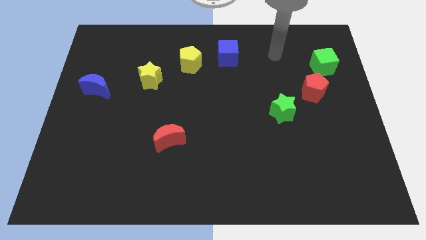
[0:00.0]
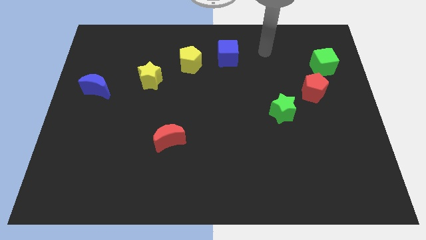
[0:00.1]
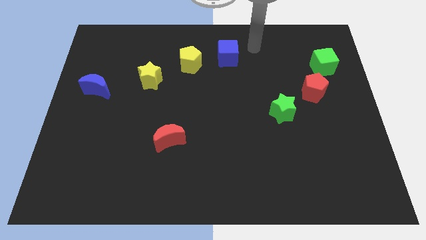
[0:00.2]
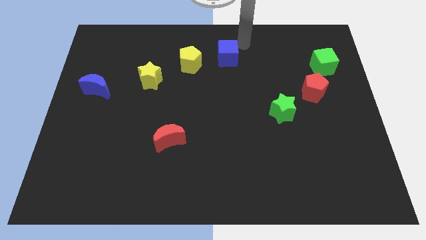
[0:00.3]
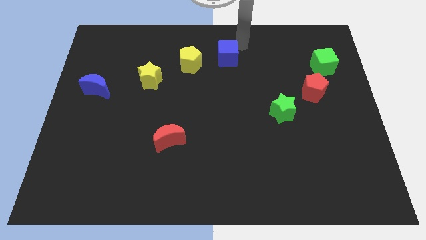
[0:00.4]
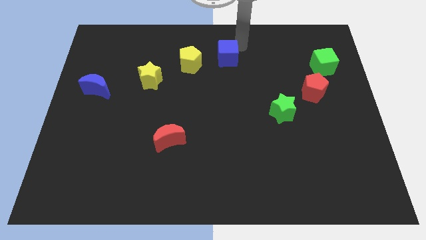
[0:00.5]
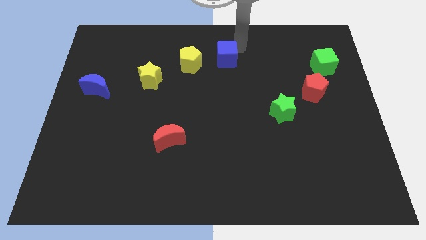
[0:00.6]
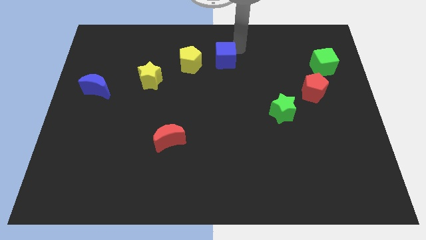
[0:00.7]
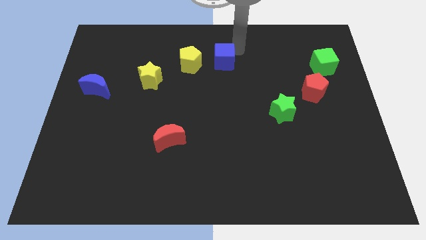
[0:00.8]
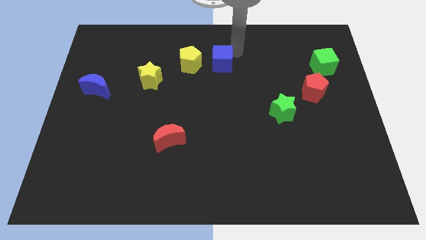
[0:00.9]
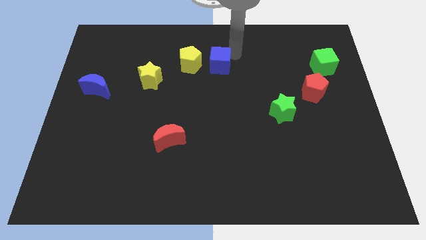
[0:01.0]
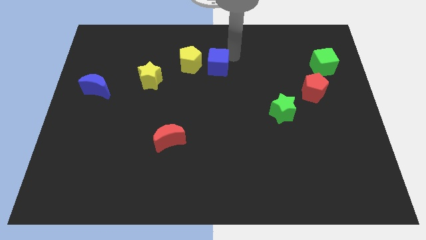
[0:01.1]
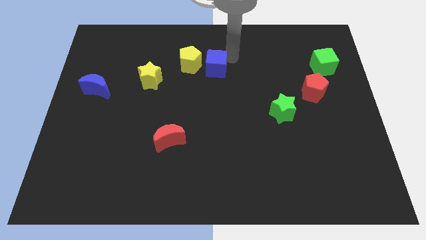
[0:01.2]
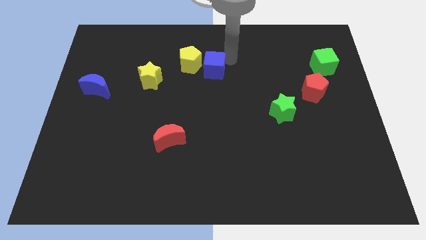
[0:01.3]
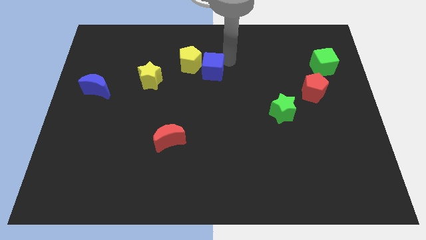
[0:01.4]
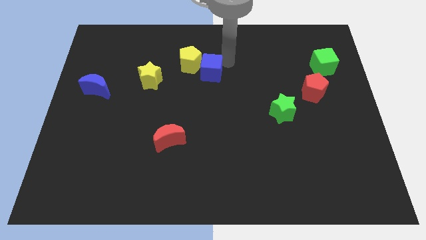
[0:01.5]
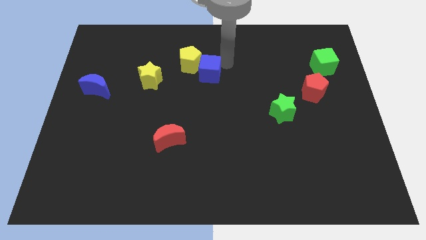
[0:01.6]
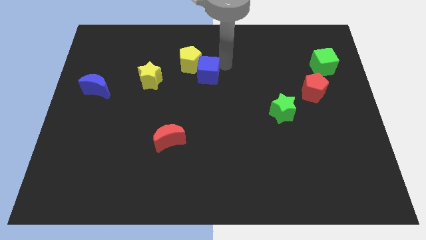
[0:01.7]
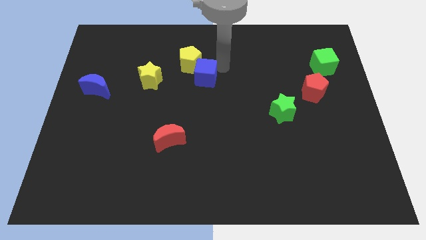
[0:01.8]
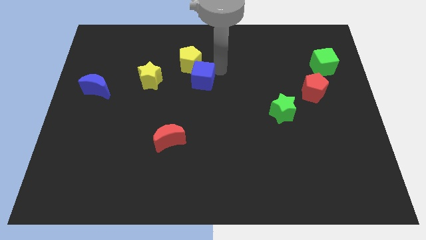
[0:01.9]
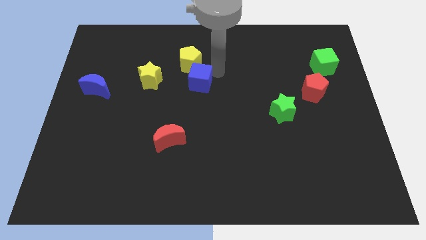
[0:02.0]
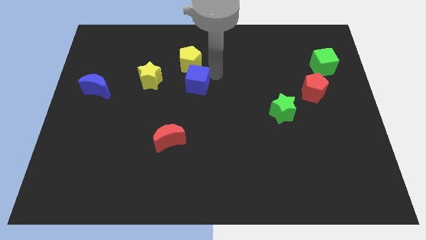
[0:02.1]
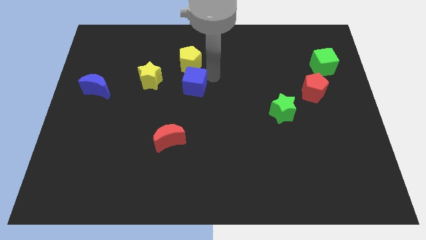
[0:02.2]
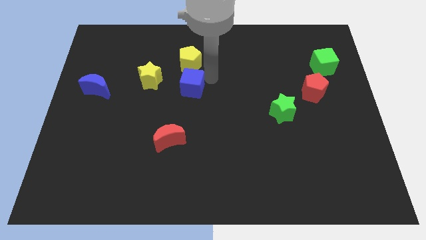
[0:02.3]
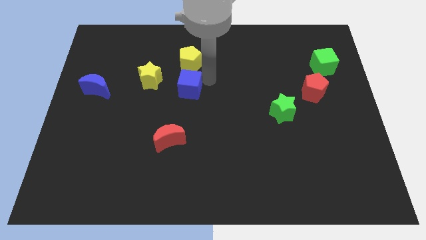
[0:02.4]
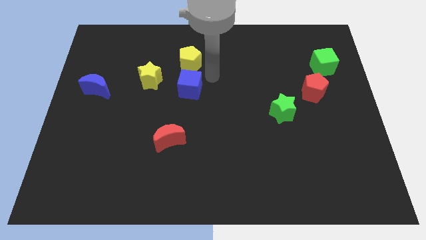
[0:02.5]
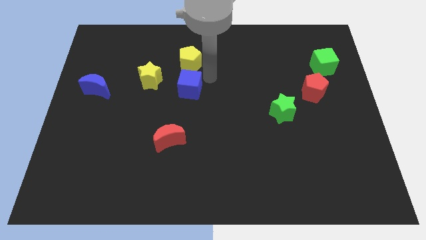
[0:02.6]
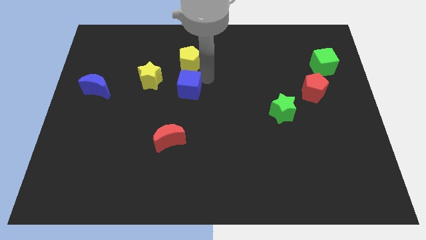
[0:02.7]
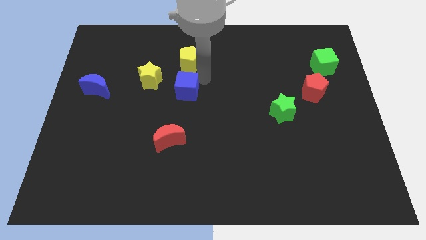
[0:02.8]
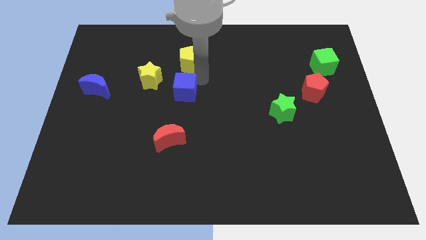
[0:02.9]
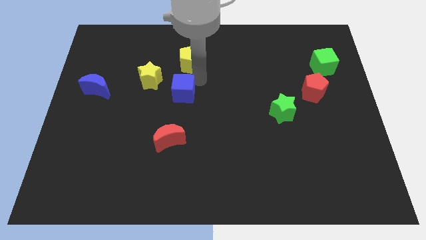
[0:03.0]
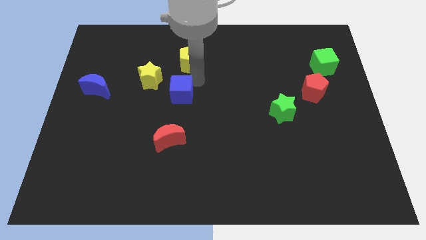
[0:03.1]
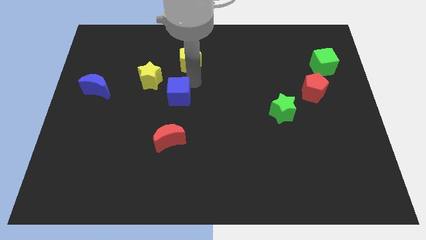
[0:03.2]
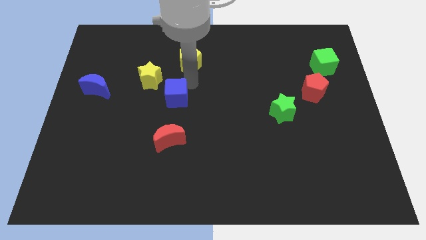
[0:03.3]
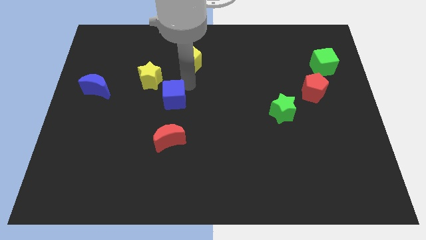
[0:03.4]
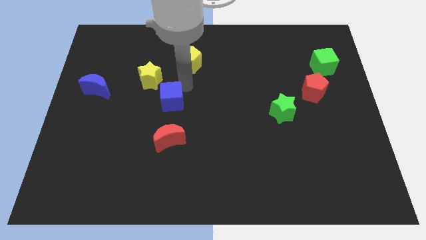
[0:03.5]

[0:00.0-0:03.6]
push the blue cube downwards and then to the left

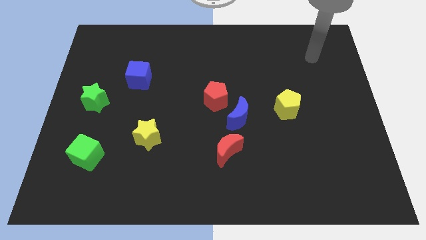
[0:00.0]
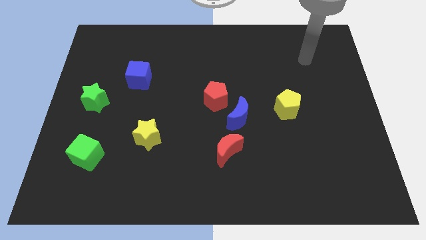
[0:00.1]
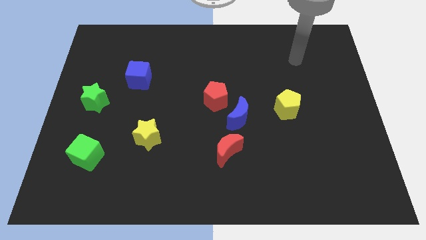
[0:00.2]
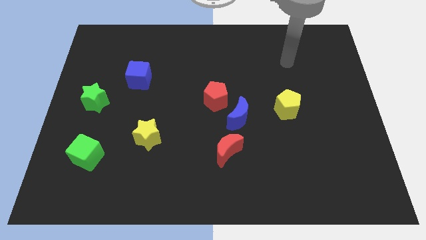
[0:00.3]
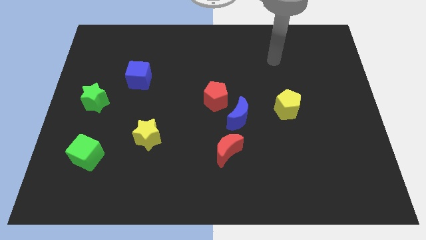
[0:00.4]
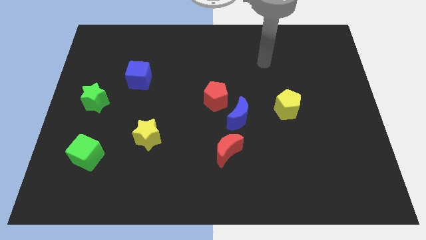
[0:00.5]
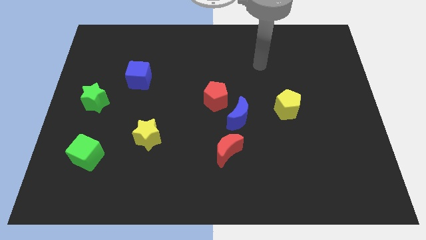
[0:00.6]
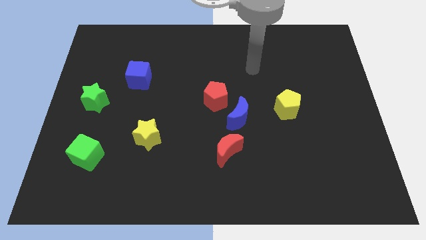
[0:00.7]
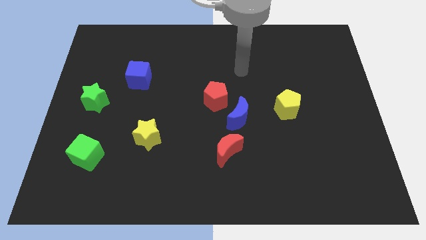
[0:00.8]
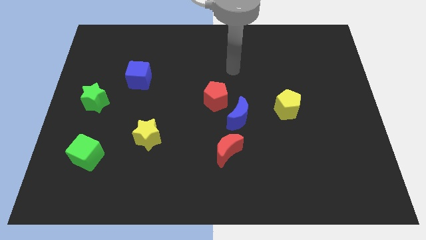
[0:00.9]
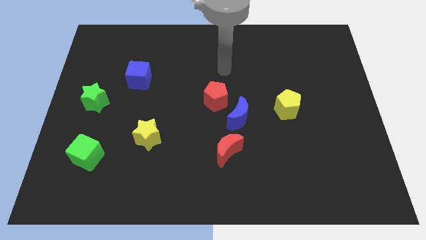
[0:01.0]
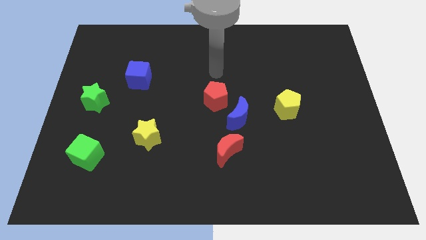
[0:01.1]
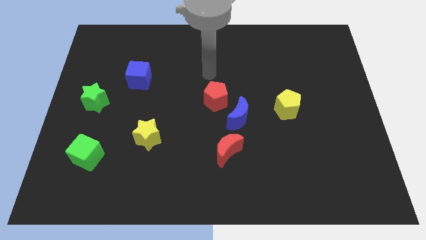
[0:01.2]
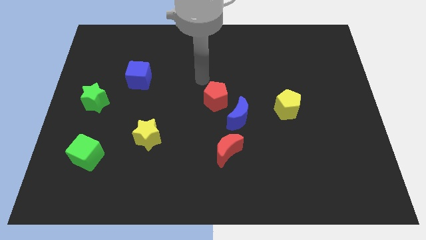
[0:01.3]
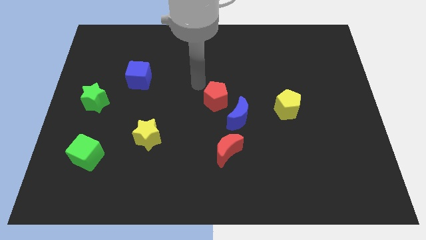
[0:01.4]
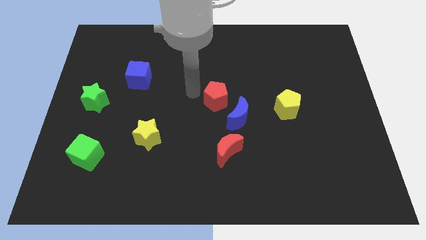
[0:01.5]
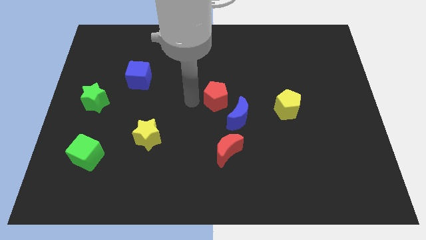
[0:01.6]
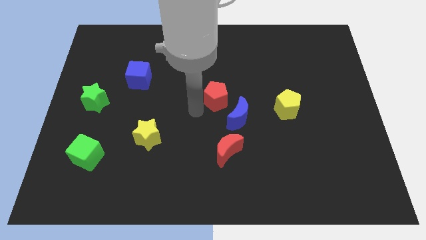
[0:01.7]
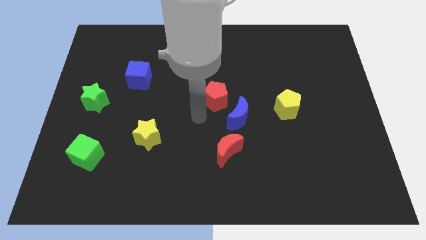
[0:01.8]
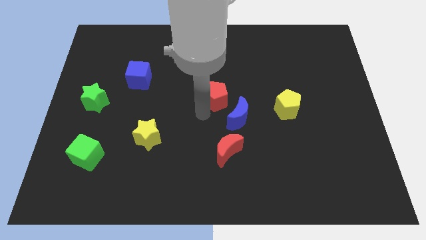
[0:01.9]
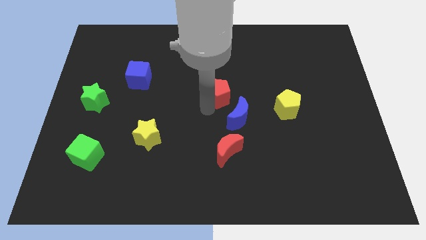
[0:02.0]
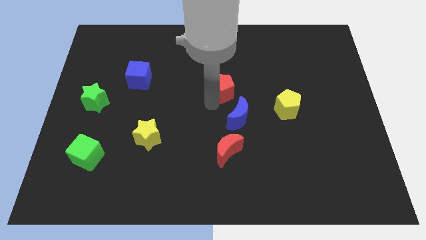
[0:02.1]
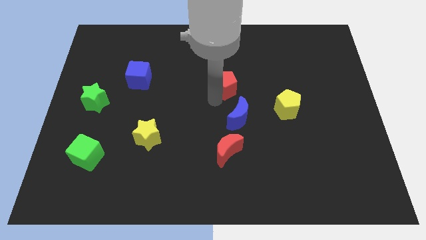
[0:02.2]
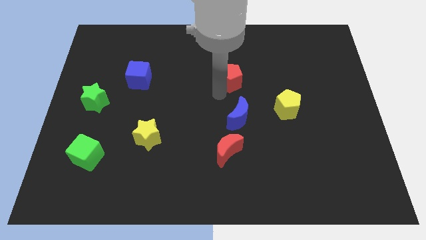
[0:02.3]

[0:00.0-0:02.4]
move the red pentagon up and to the right diagonally somewhat

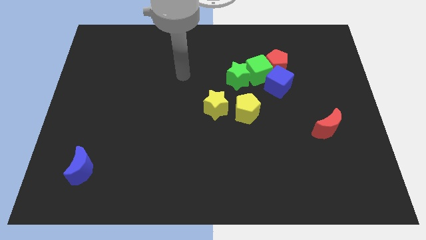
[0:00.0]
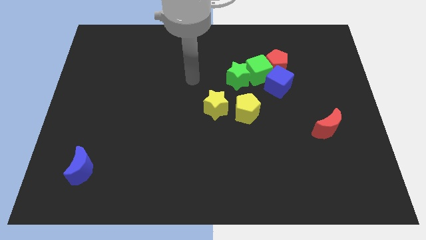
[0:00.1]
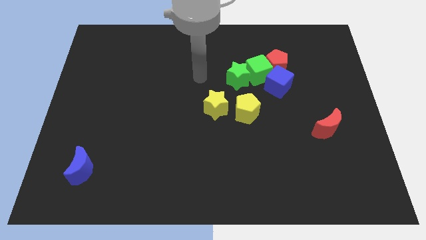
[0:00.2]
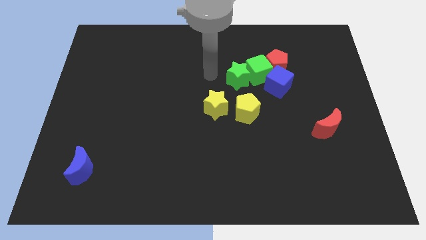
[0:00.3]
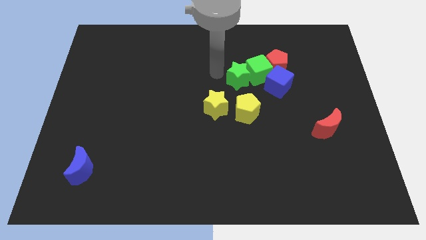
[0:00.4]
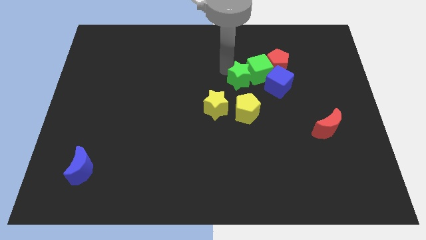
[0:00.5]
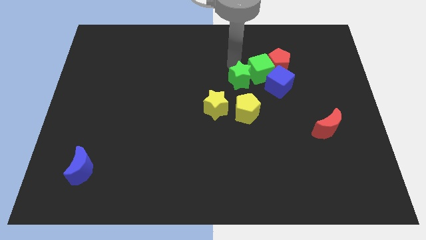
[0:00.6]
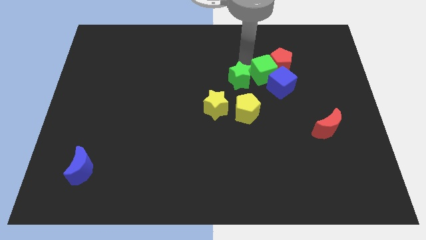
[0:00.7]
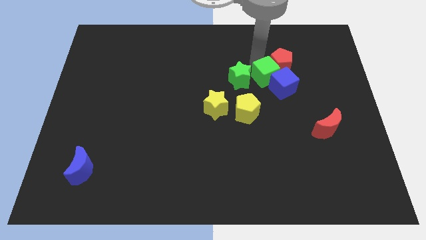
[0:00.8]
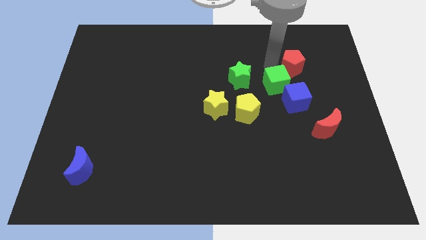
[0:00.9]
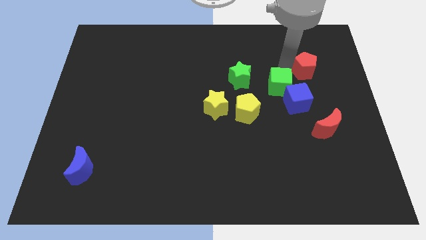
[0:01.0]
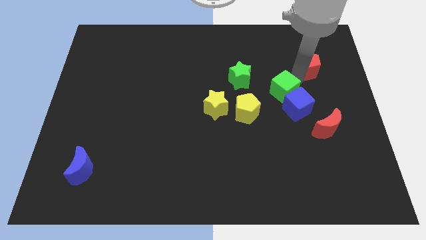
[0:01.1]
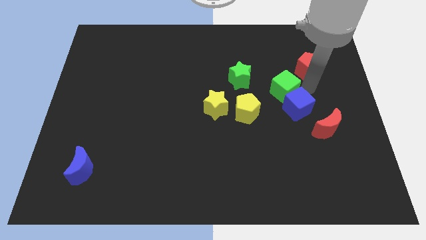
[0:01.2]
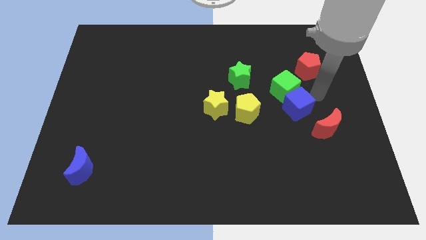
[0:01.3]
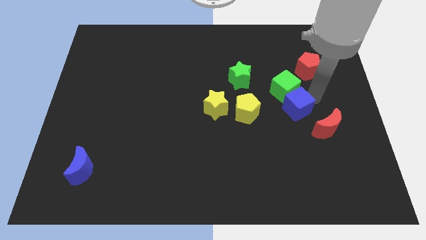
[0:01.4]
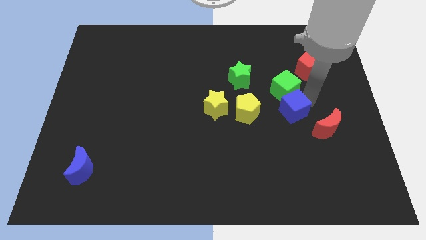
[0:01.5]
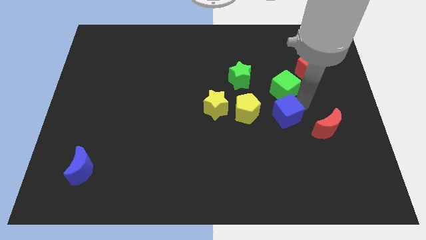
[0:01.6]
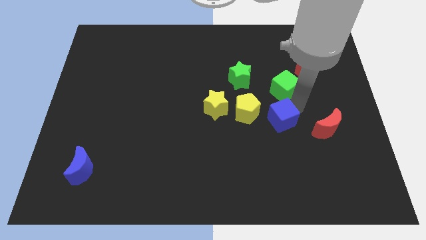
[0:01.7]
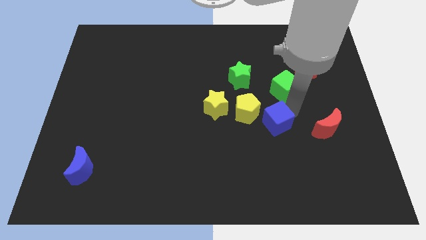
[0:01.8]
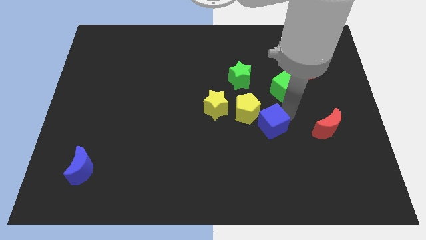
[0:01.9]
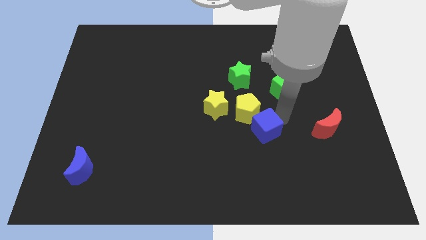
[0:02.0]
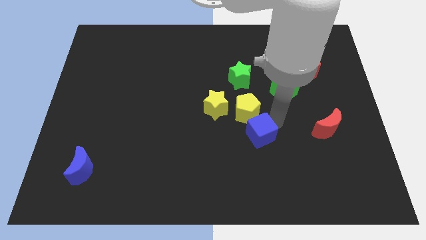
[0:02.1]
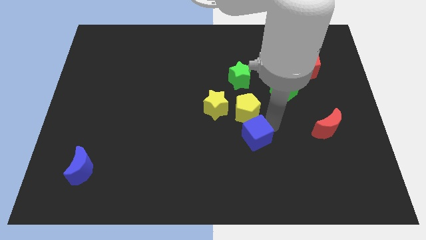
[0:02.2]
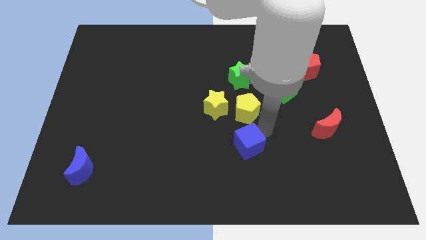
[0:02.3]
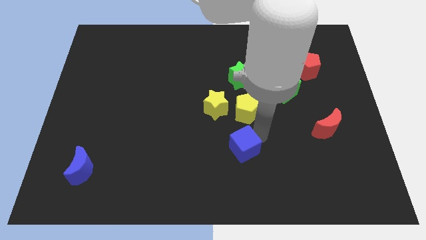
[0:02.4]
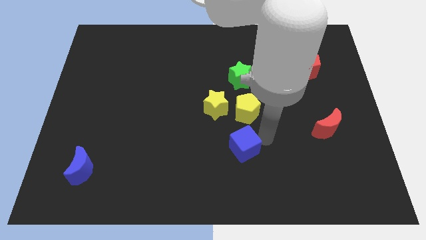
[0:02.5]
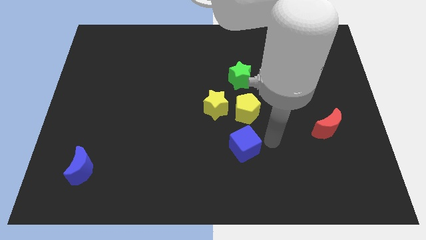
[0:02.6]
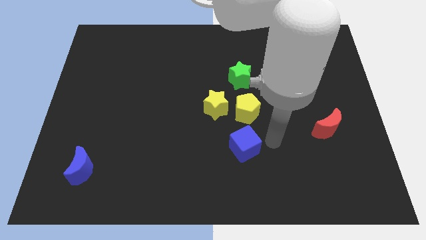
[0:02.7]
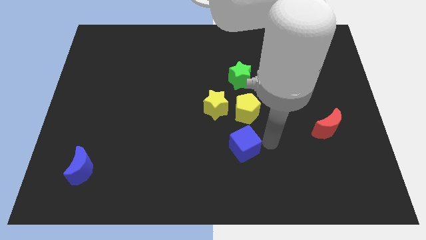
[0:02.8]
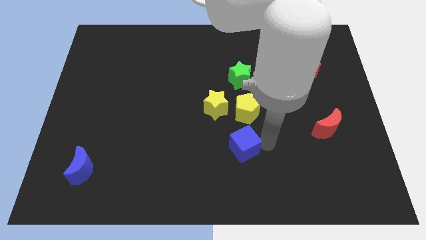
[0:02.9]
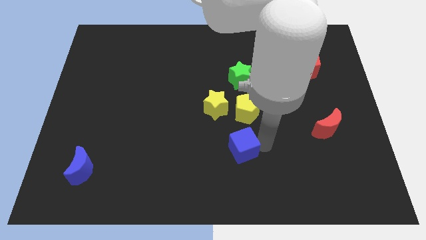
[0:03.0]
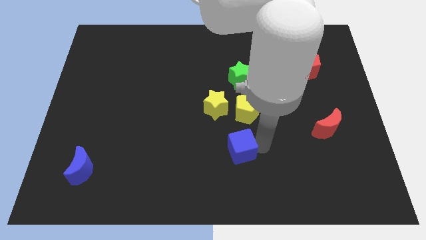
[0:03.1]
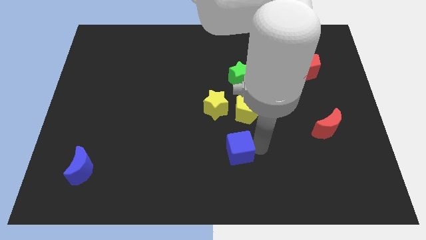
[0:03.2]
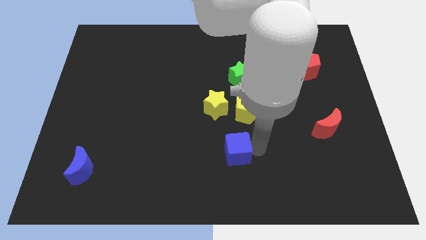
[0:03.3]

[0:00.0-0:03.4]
push the blue cube down and to the left
